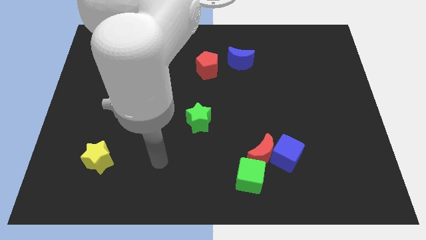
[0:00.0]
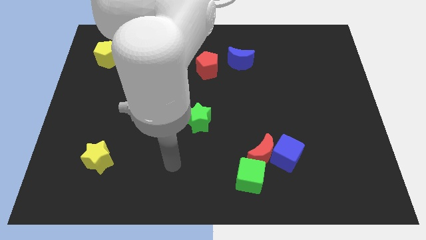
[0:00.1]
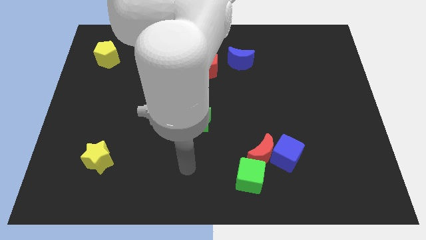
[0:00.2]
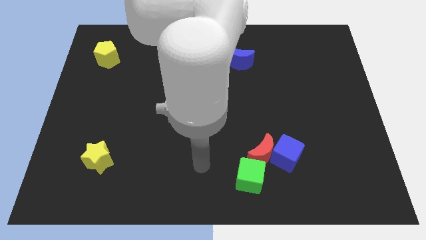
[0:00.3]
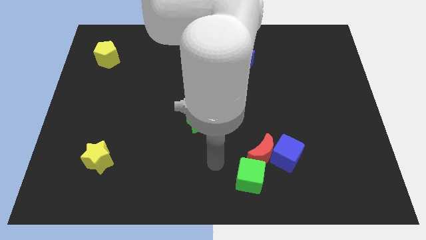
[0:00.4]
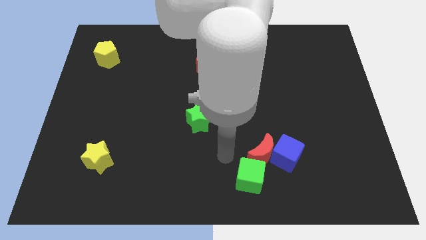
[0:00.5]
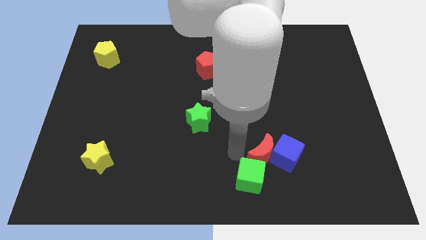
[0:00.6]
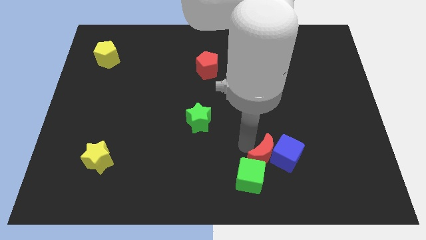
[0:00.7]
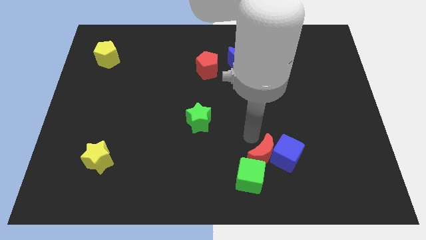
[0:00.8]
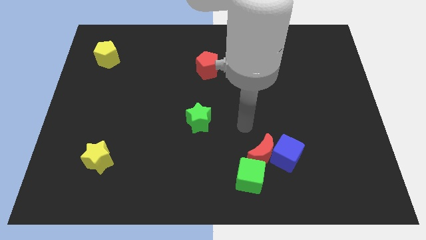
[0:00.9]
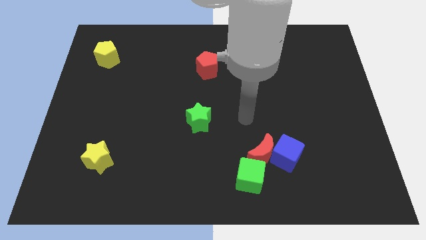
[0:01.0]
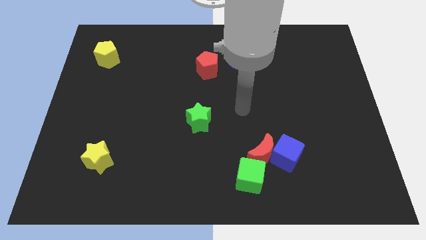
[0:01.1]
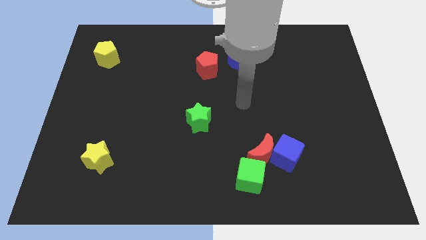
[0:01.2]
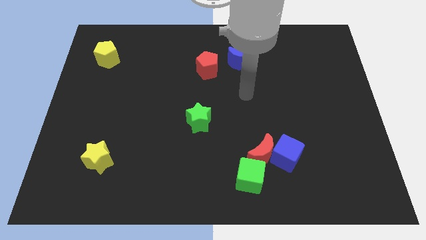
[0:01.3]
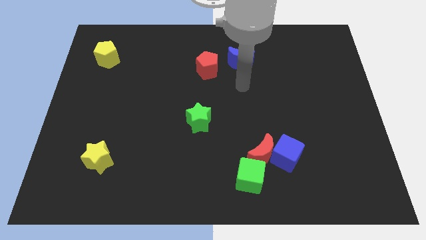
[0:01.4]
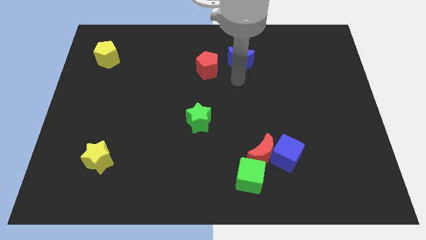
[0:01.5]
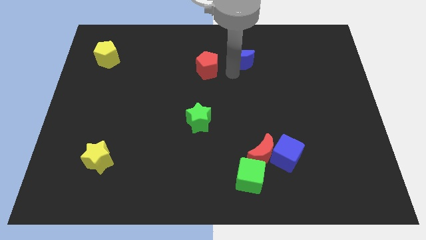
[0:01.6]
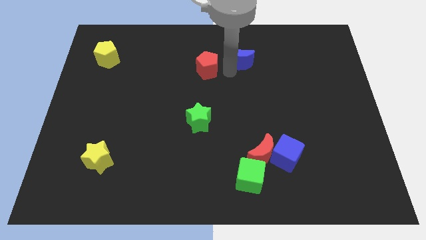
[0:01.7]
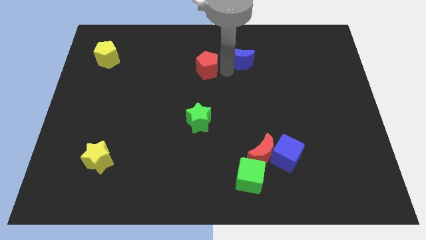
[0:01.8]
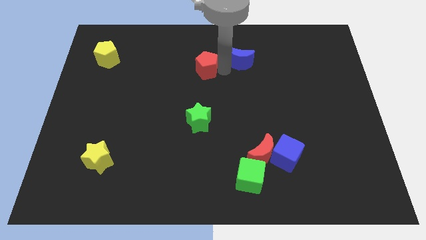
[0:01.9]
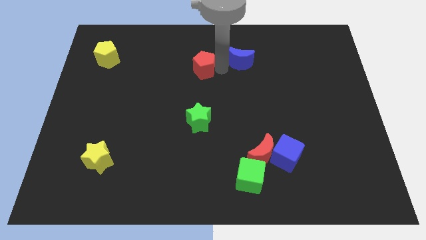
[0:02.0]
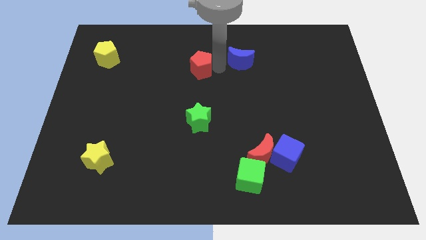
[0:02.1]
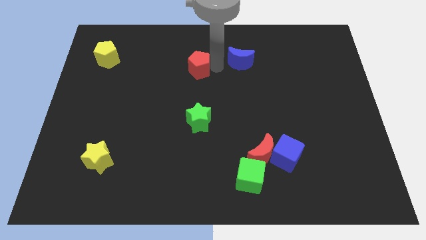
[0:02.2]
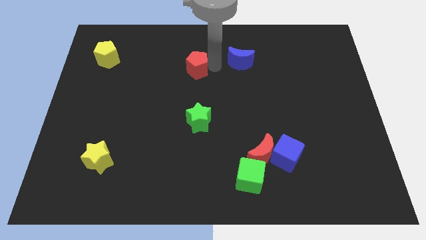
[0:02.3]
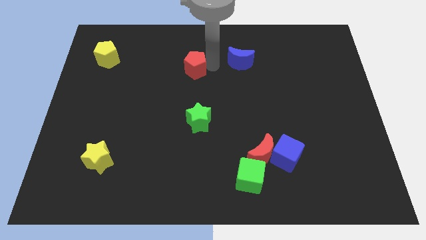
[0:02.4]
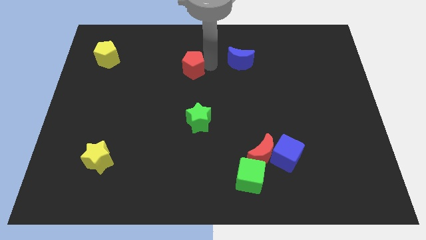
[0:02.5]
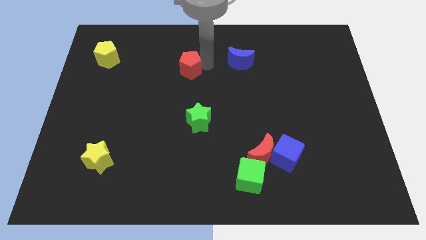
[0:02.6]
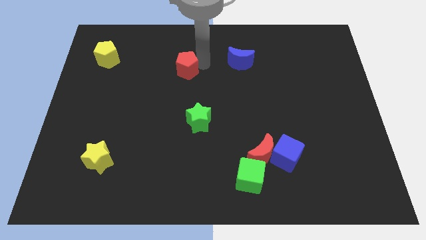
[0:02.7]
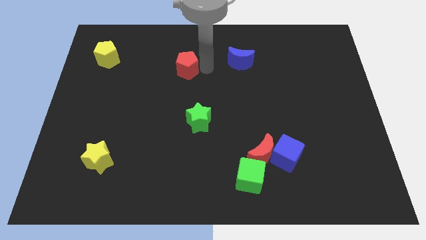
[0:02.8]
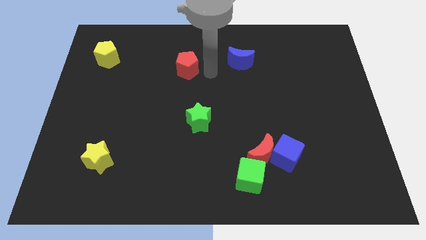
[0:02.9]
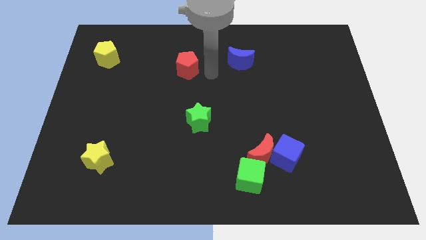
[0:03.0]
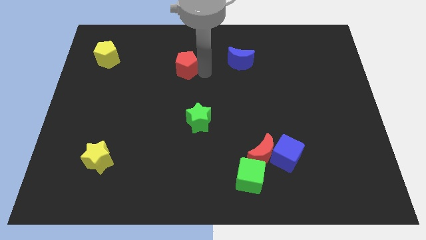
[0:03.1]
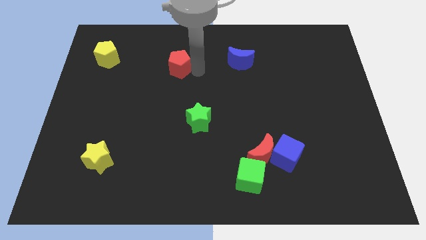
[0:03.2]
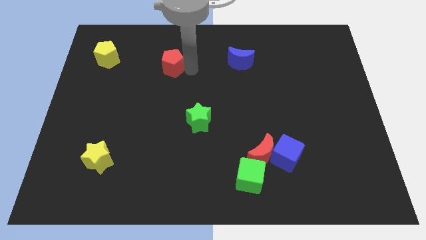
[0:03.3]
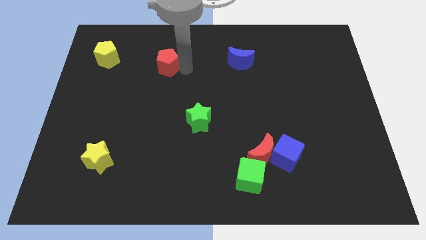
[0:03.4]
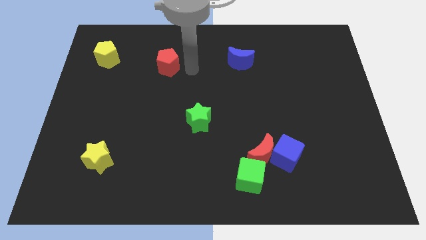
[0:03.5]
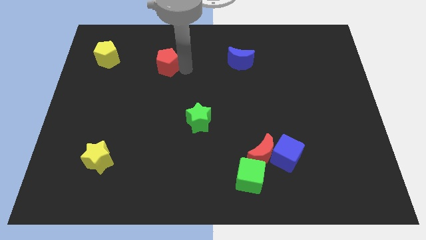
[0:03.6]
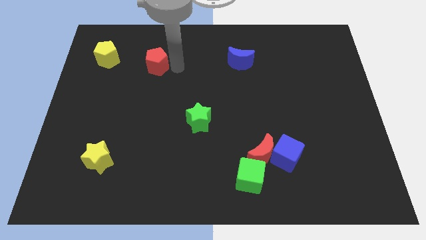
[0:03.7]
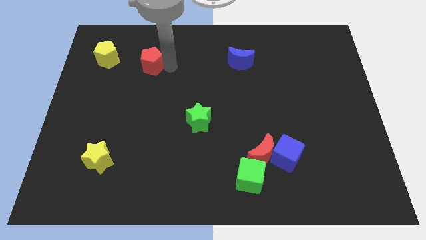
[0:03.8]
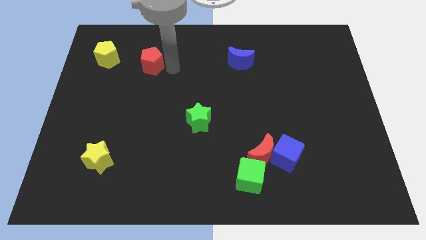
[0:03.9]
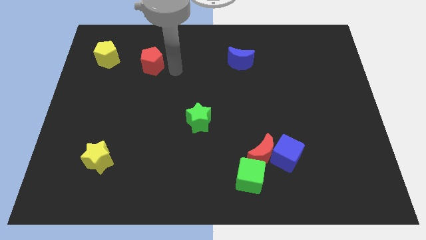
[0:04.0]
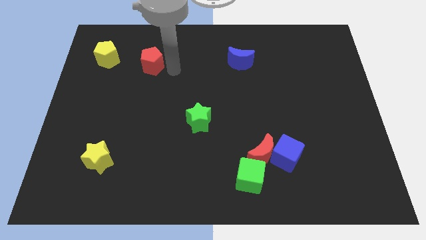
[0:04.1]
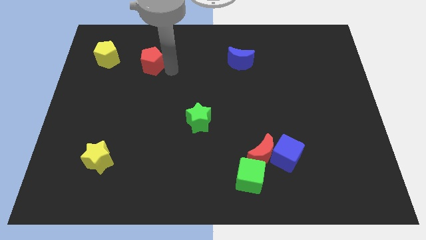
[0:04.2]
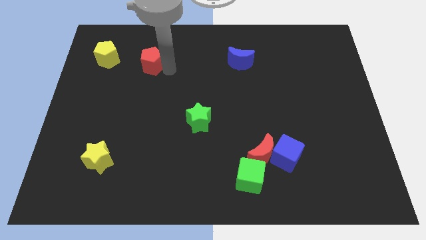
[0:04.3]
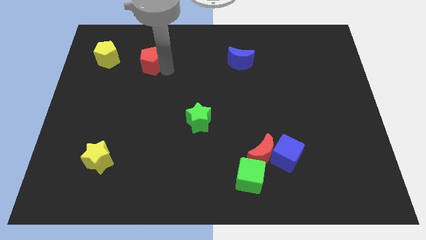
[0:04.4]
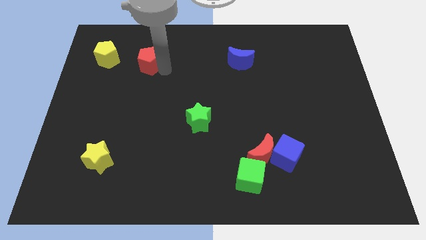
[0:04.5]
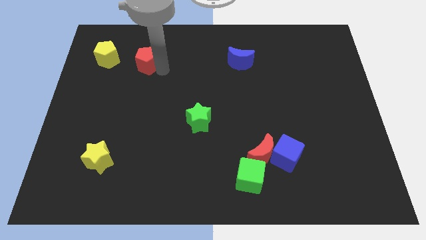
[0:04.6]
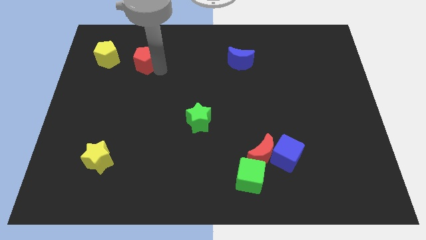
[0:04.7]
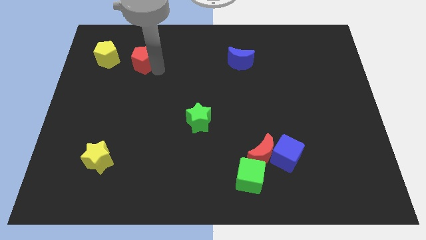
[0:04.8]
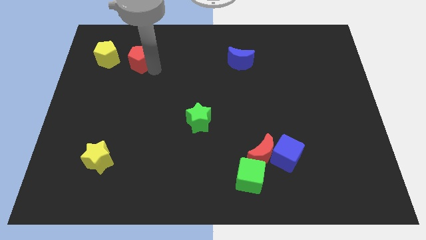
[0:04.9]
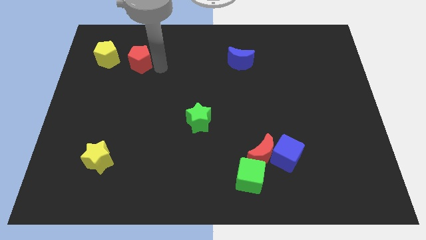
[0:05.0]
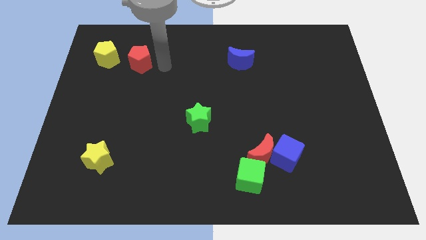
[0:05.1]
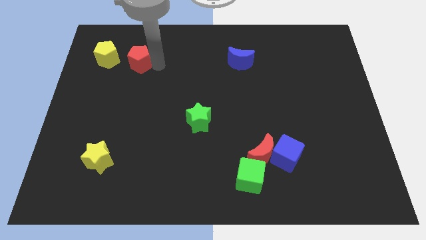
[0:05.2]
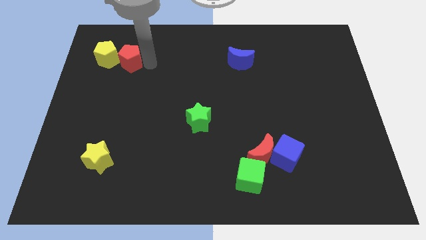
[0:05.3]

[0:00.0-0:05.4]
push the red pentagon towards the yellow pentagon
